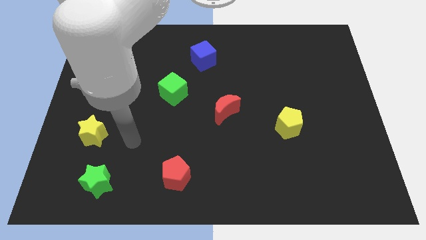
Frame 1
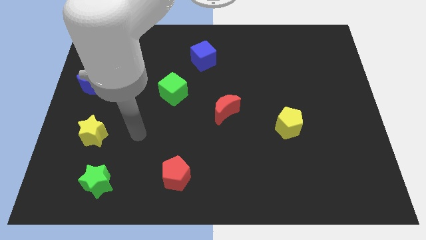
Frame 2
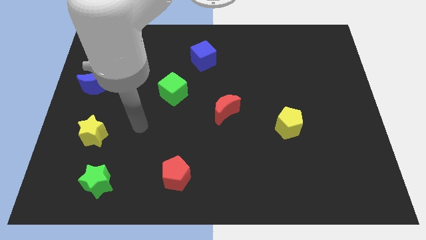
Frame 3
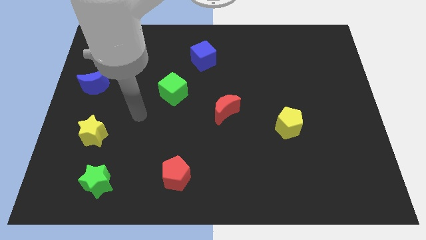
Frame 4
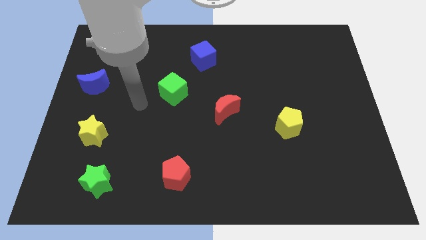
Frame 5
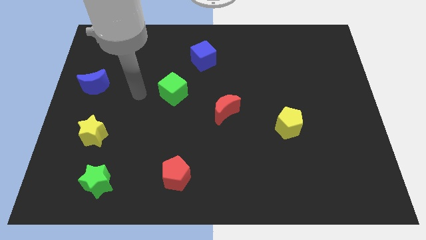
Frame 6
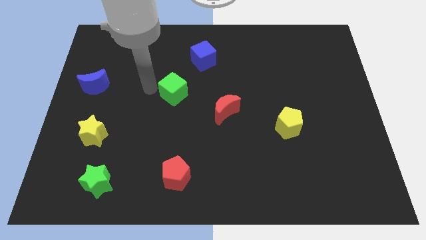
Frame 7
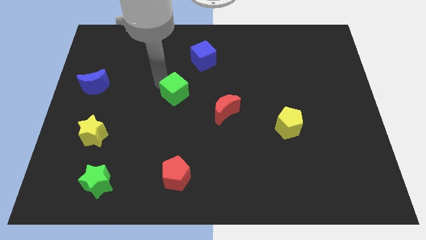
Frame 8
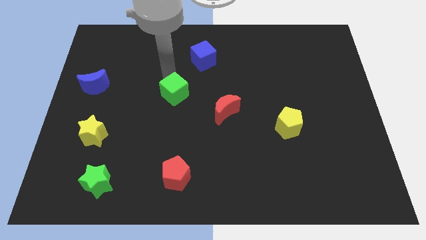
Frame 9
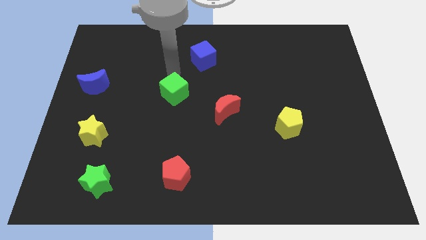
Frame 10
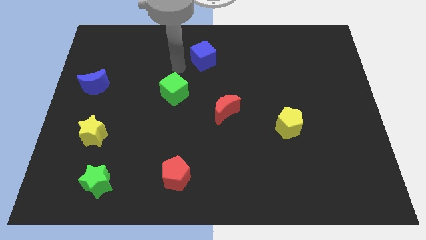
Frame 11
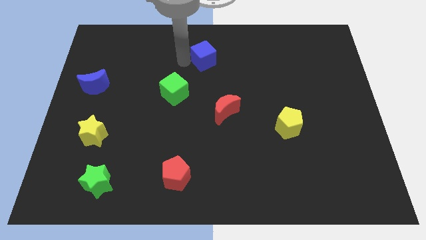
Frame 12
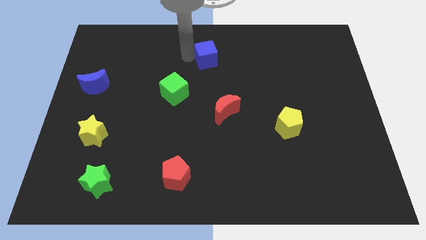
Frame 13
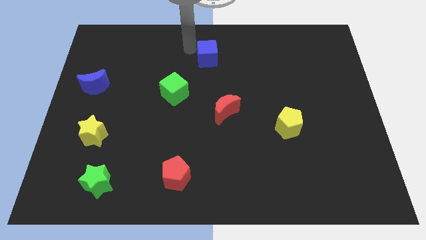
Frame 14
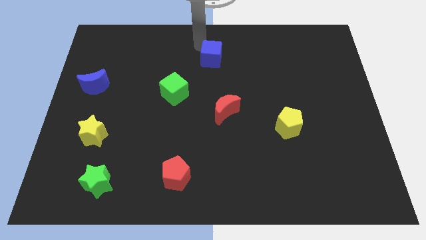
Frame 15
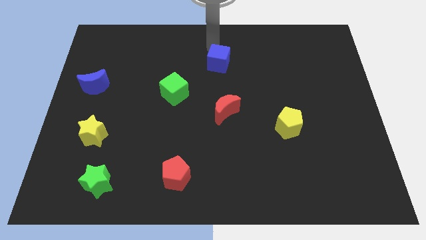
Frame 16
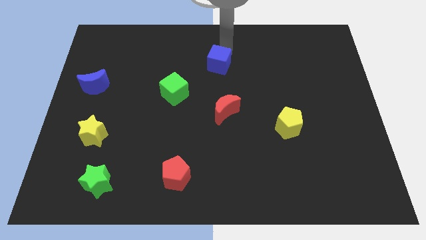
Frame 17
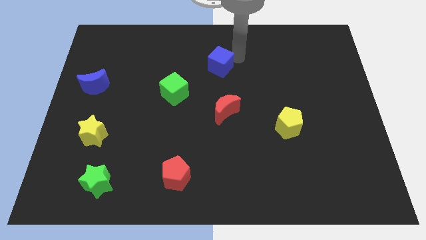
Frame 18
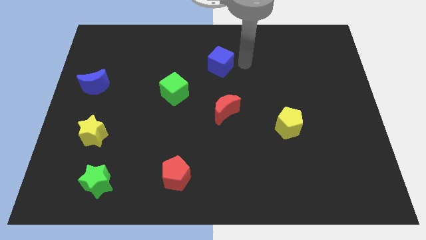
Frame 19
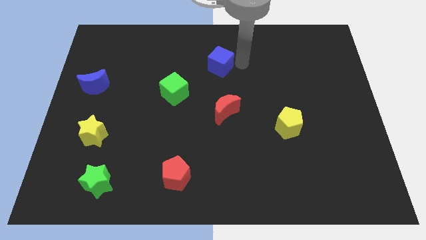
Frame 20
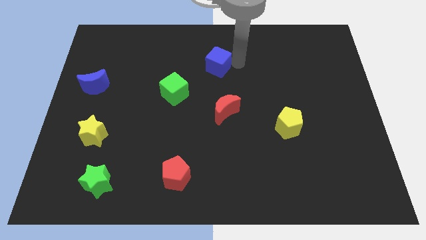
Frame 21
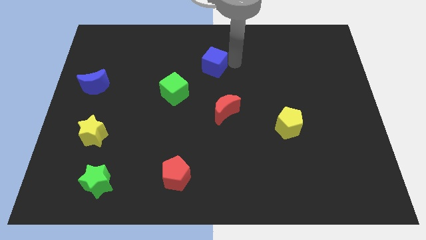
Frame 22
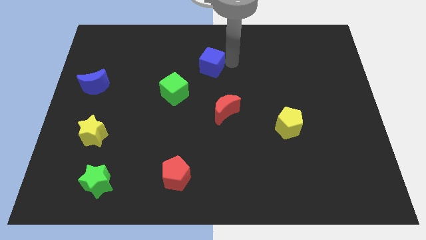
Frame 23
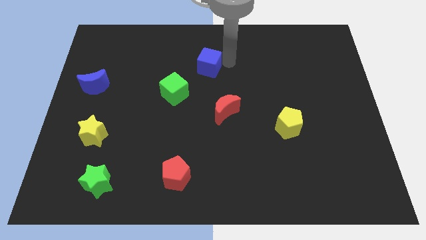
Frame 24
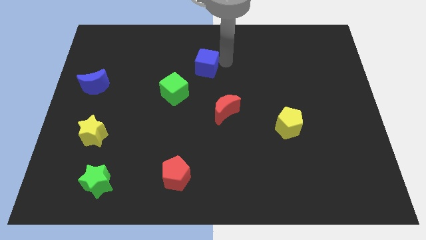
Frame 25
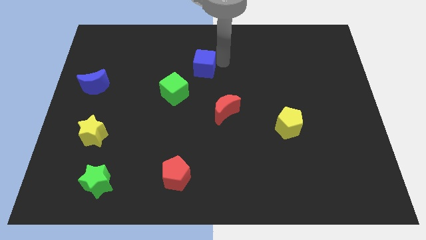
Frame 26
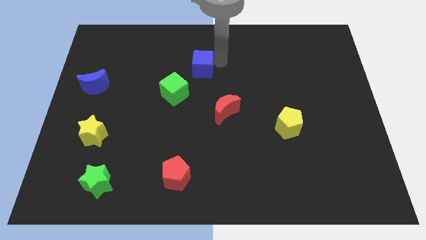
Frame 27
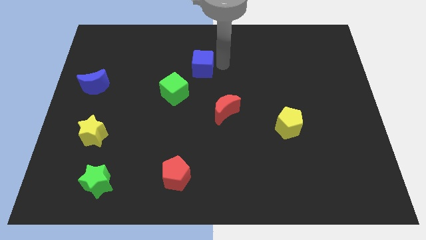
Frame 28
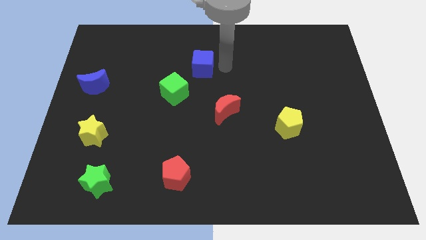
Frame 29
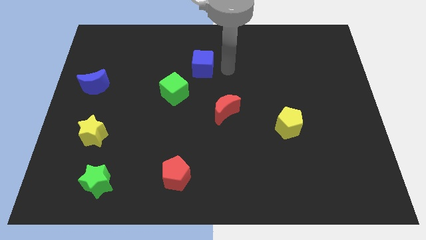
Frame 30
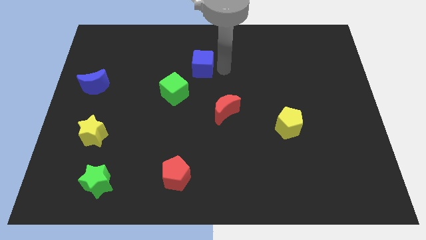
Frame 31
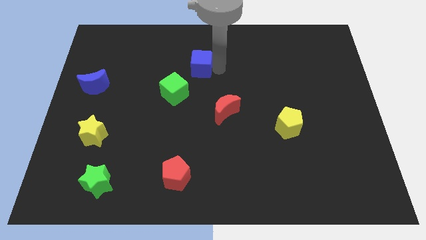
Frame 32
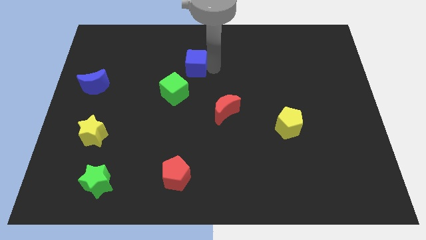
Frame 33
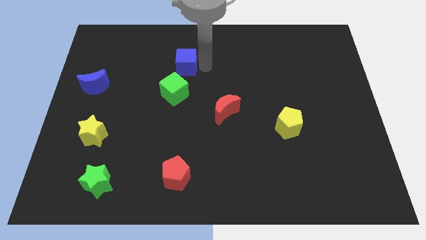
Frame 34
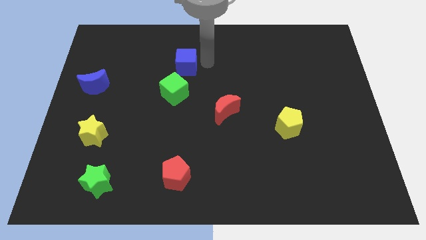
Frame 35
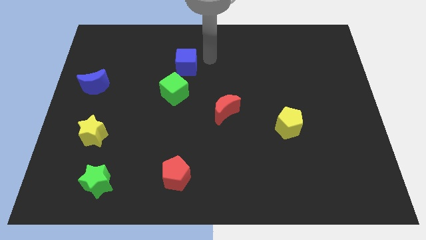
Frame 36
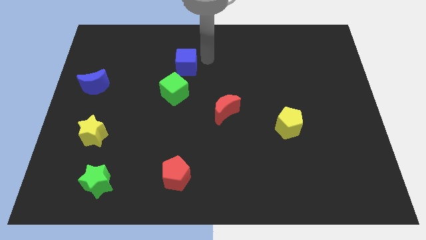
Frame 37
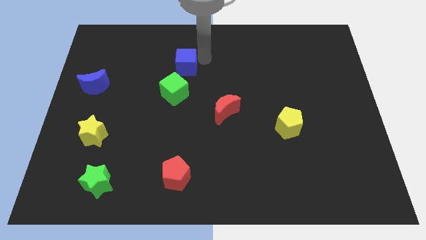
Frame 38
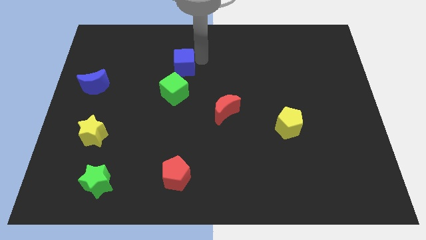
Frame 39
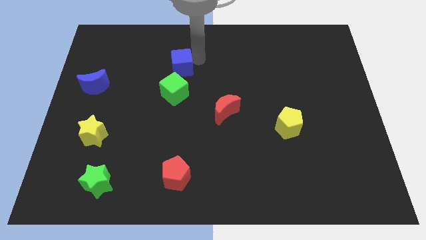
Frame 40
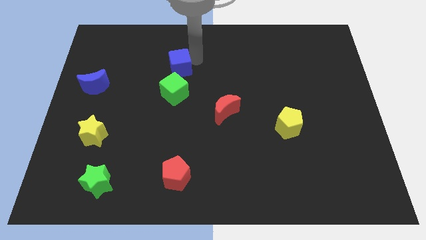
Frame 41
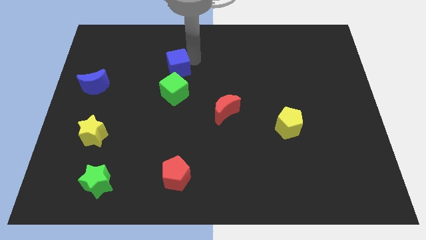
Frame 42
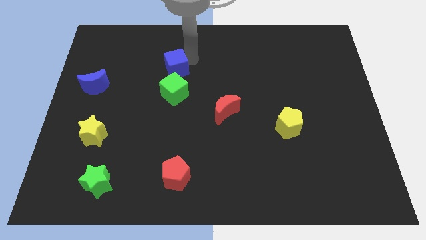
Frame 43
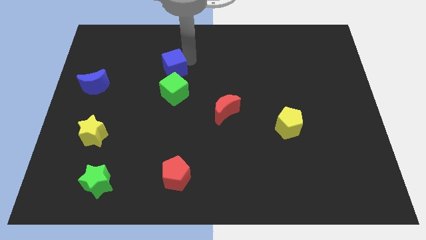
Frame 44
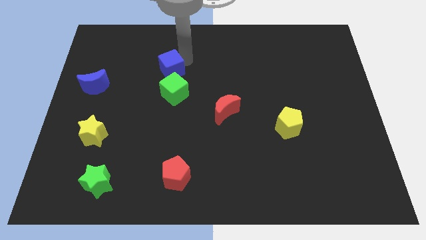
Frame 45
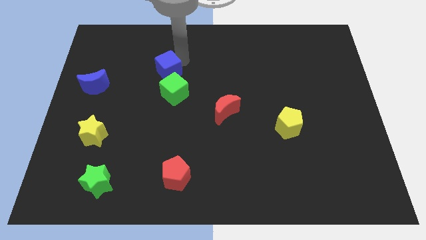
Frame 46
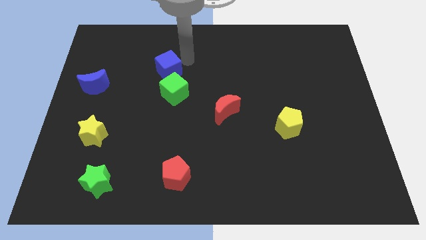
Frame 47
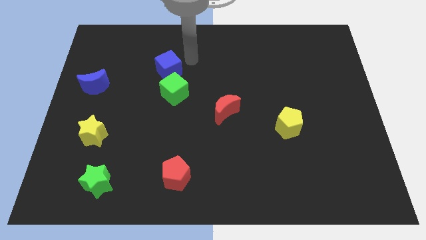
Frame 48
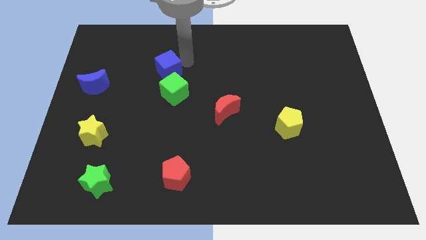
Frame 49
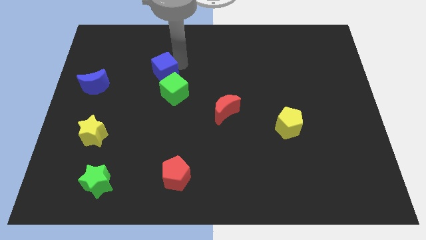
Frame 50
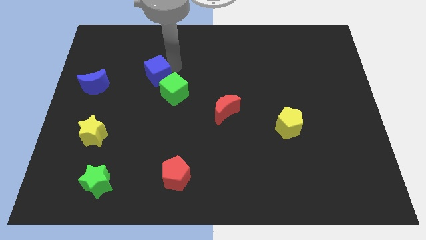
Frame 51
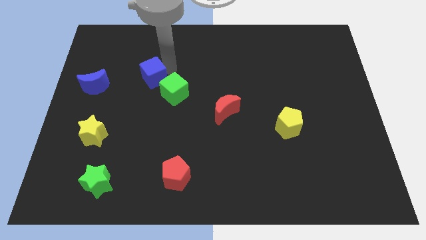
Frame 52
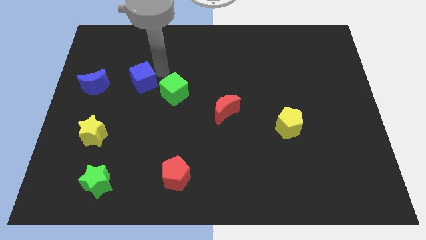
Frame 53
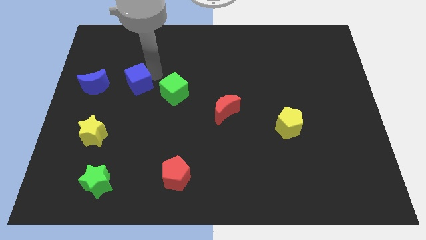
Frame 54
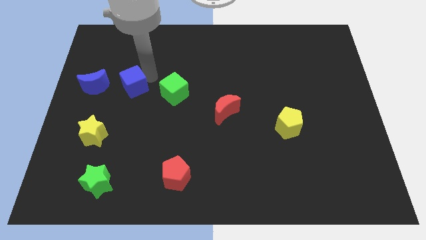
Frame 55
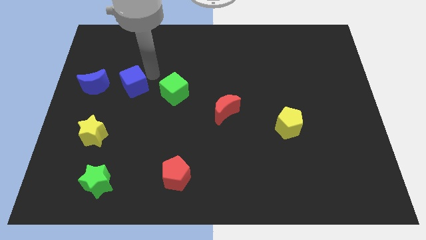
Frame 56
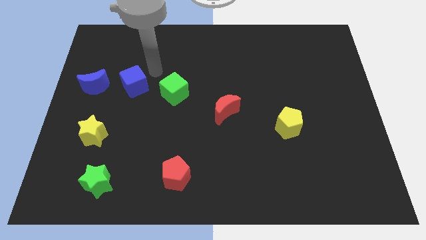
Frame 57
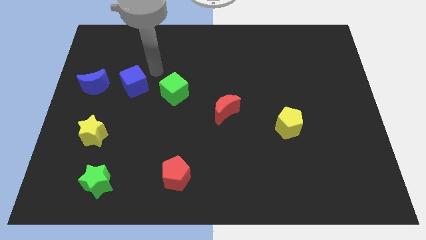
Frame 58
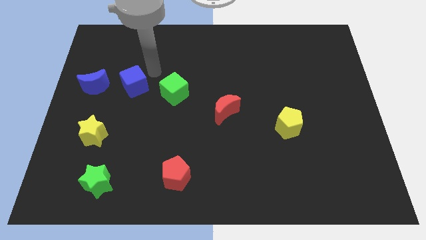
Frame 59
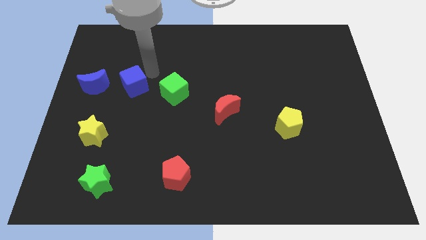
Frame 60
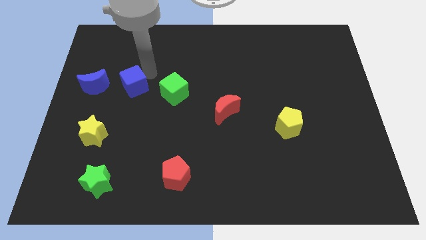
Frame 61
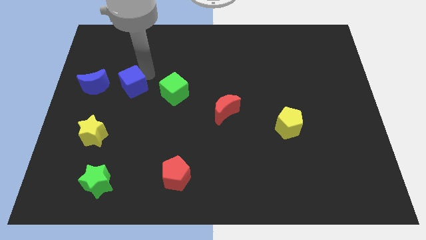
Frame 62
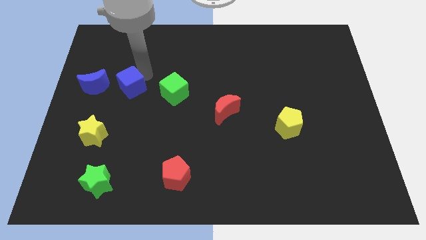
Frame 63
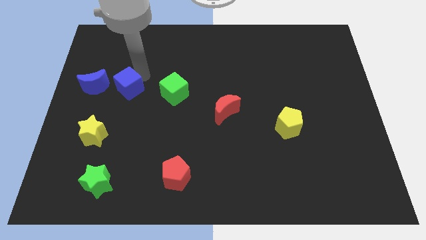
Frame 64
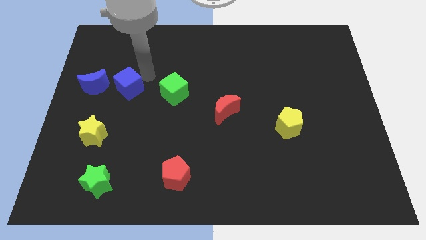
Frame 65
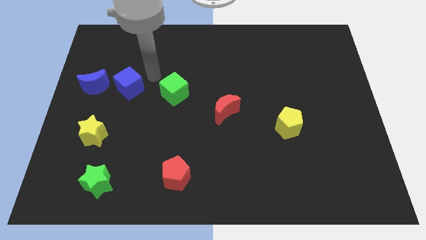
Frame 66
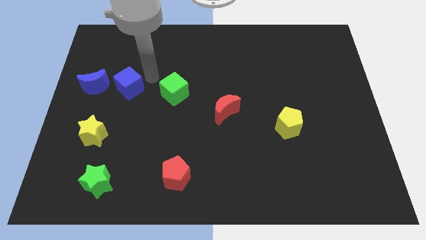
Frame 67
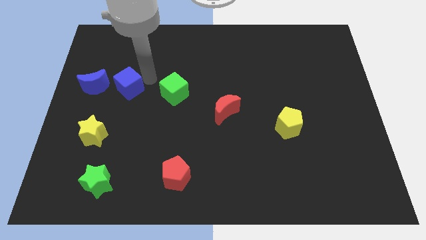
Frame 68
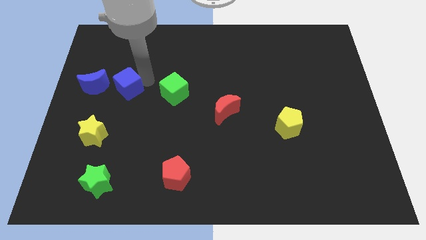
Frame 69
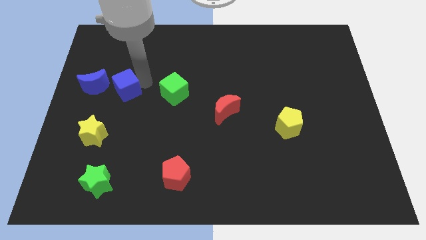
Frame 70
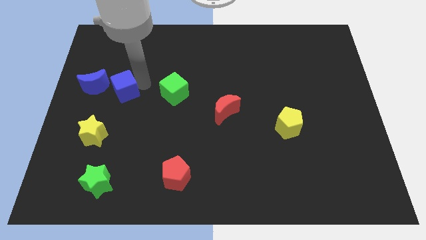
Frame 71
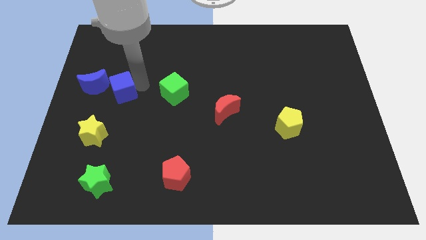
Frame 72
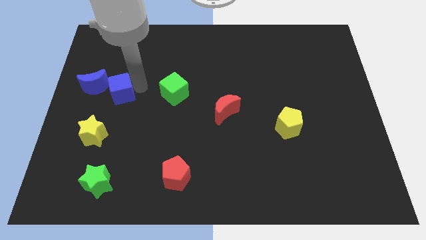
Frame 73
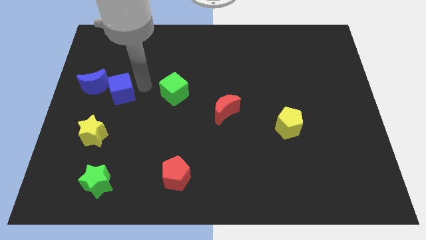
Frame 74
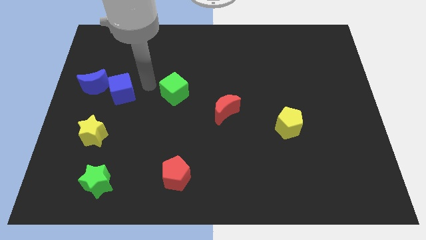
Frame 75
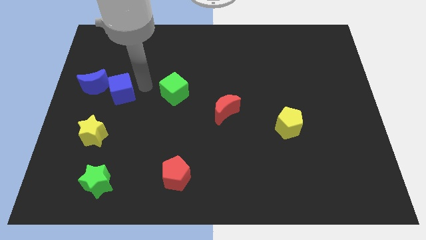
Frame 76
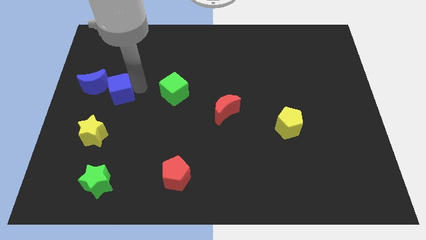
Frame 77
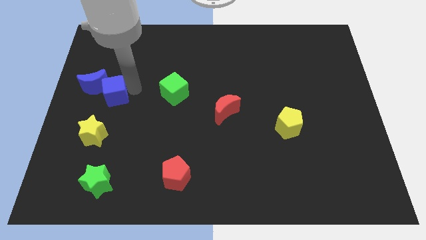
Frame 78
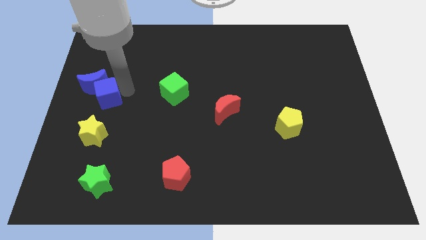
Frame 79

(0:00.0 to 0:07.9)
put the blue cube to the center left
